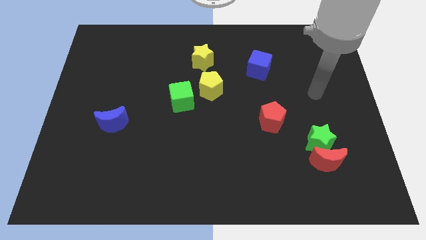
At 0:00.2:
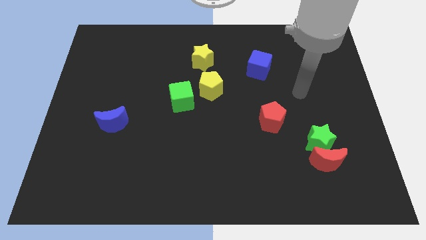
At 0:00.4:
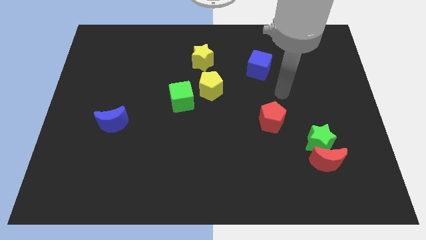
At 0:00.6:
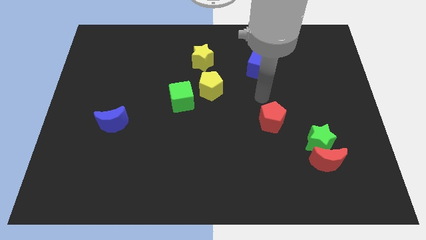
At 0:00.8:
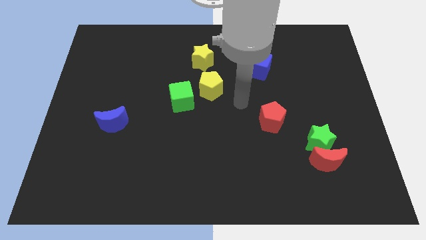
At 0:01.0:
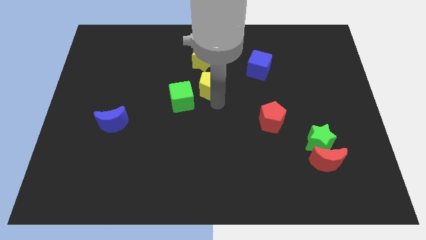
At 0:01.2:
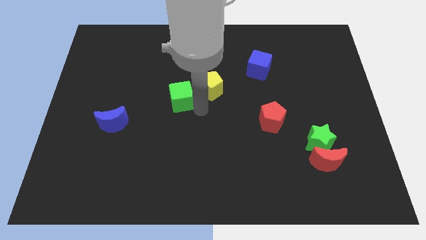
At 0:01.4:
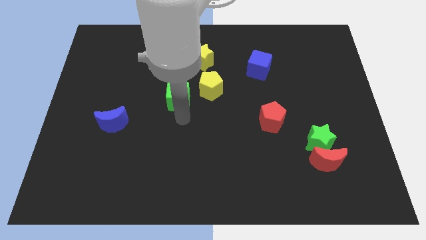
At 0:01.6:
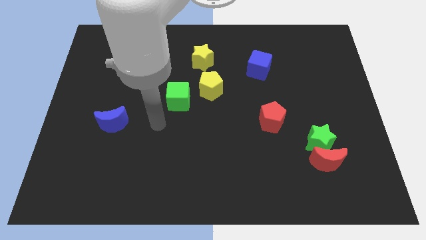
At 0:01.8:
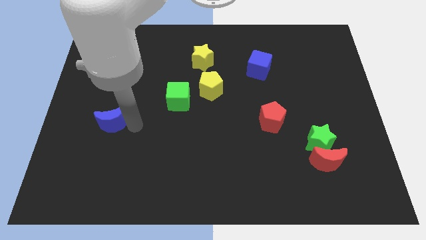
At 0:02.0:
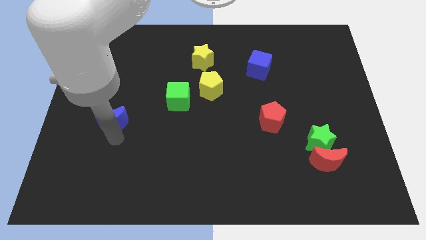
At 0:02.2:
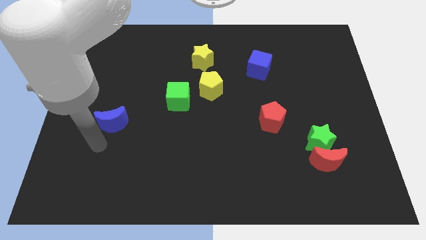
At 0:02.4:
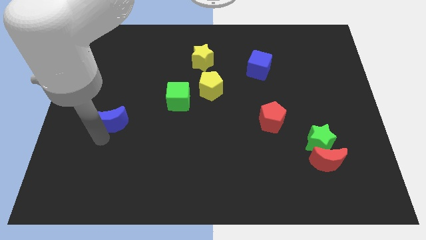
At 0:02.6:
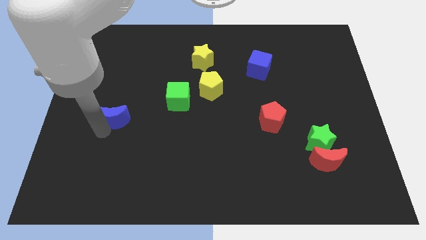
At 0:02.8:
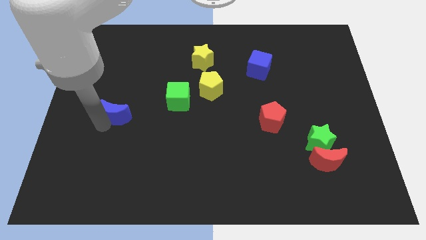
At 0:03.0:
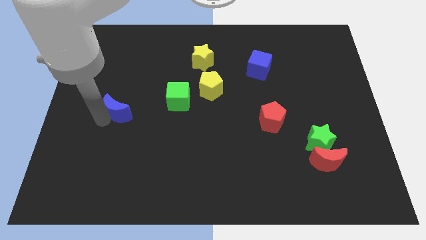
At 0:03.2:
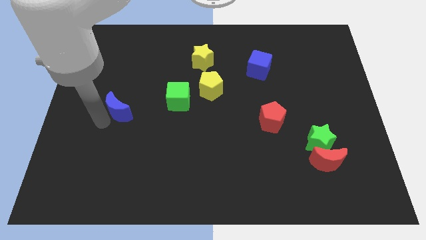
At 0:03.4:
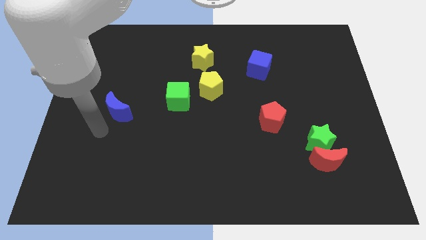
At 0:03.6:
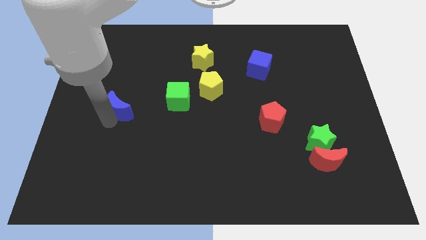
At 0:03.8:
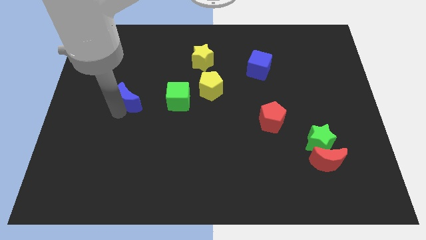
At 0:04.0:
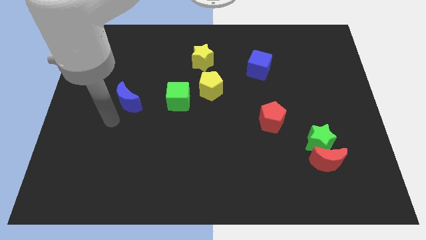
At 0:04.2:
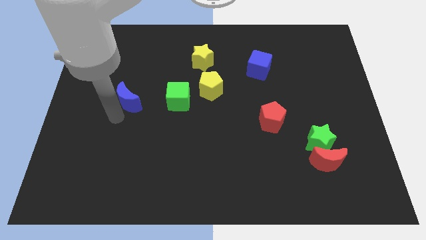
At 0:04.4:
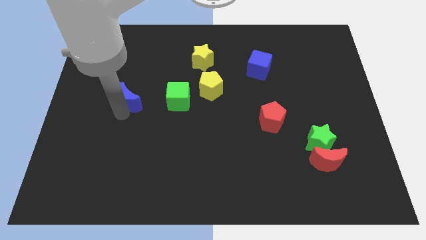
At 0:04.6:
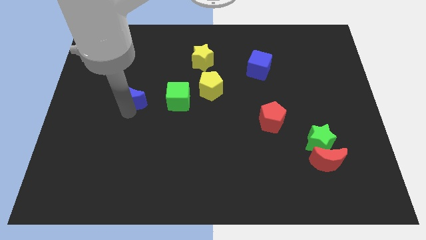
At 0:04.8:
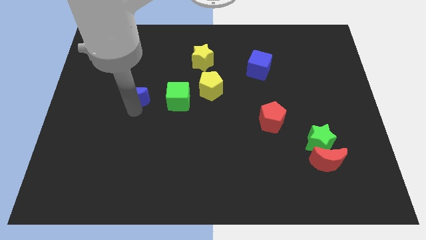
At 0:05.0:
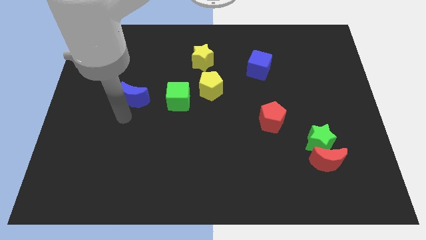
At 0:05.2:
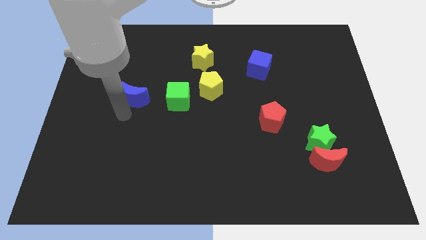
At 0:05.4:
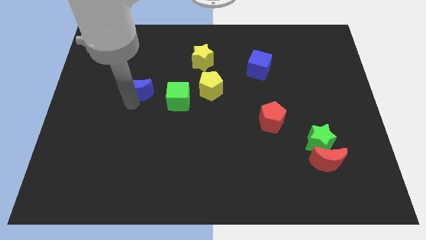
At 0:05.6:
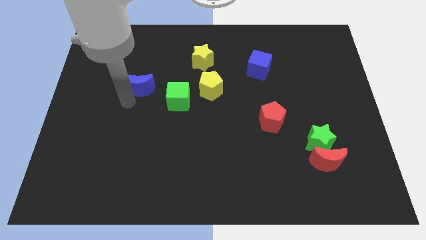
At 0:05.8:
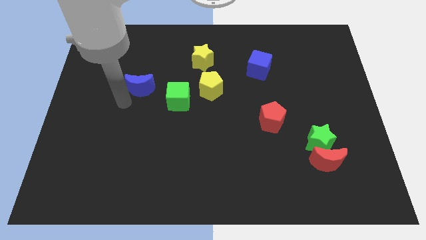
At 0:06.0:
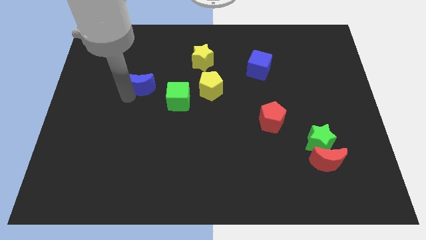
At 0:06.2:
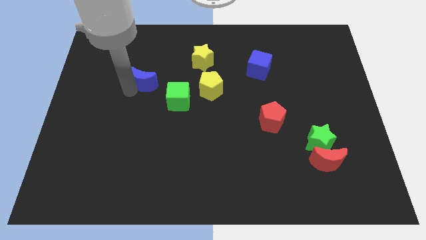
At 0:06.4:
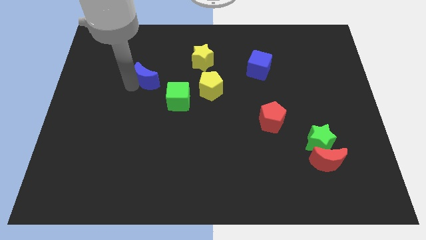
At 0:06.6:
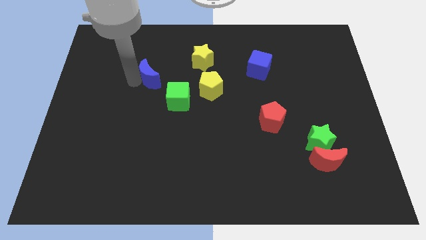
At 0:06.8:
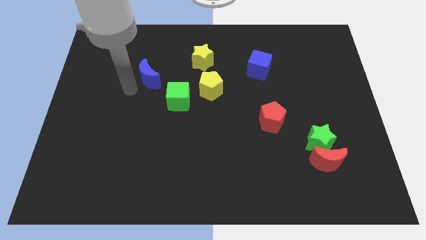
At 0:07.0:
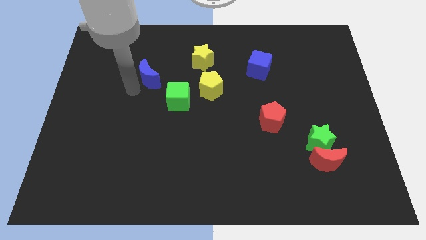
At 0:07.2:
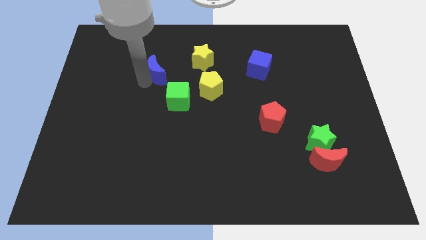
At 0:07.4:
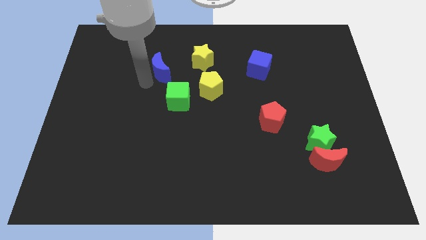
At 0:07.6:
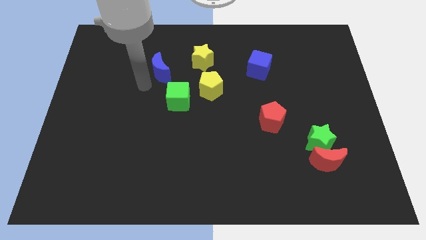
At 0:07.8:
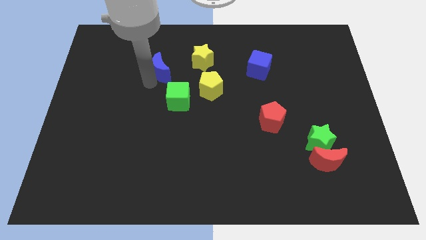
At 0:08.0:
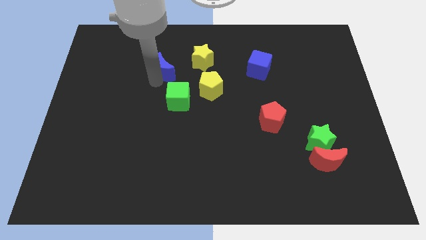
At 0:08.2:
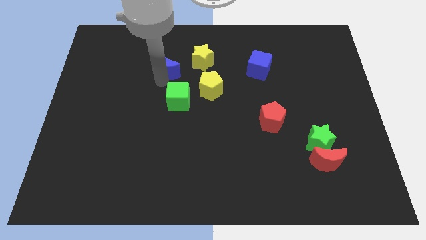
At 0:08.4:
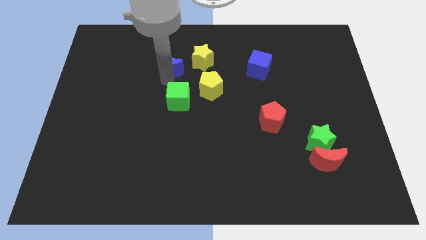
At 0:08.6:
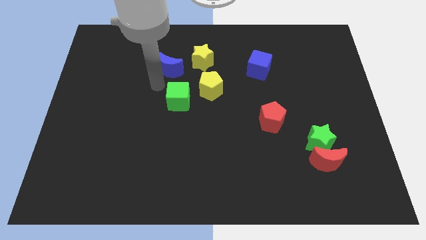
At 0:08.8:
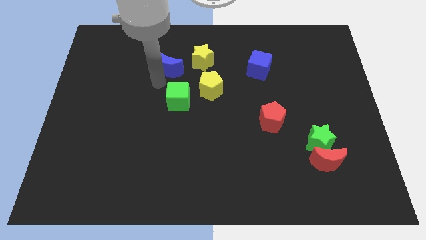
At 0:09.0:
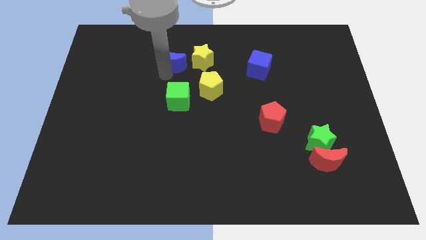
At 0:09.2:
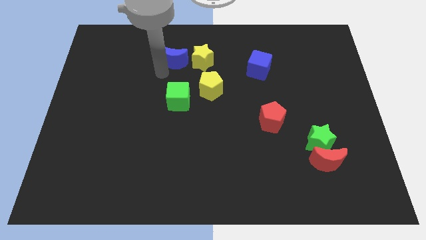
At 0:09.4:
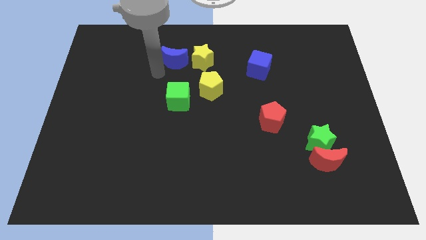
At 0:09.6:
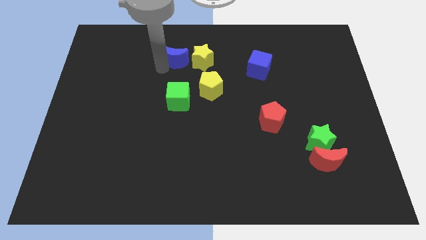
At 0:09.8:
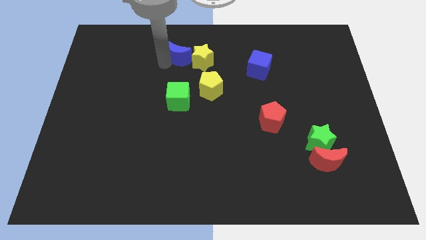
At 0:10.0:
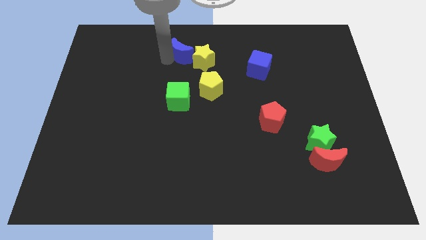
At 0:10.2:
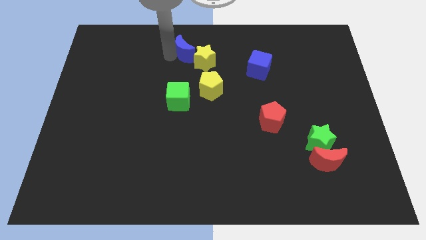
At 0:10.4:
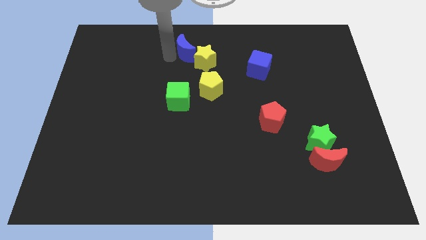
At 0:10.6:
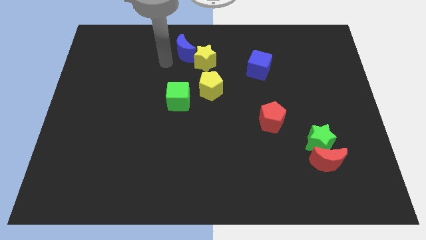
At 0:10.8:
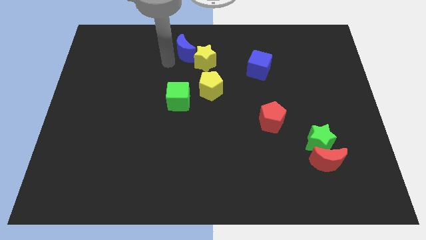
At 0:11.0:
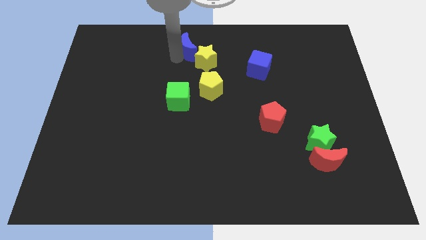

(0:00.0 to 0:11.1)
move the blue moon to the top

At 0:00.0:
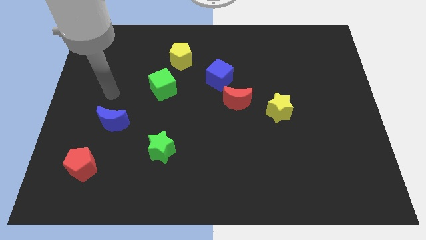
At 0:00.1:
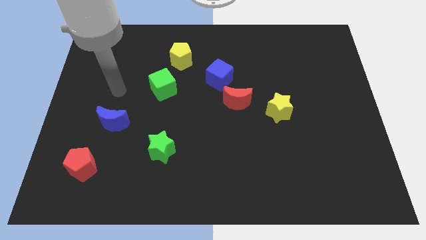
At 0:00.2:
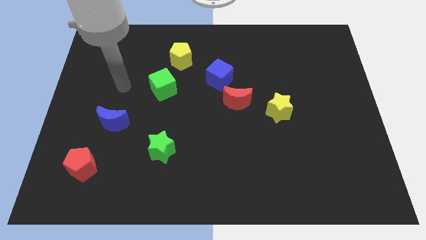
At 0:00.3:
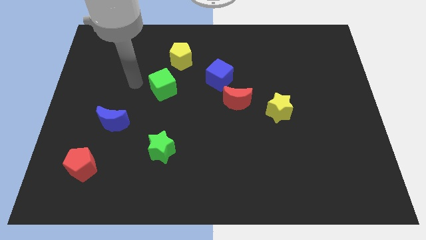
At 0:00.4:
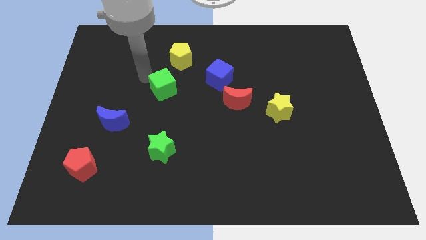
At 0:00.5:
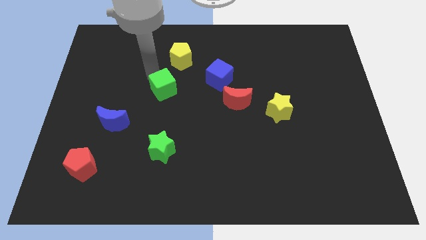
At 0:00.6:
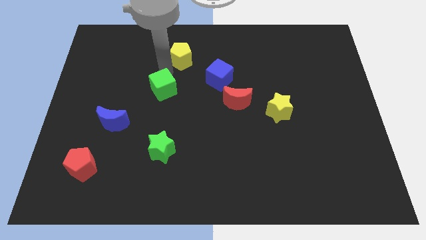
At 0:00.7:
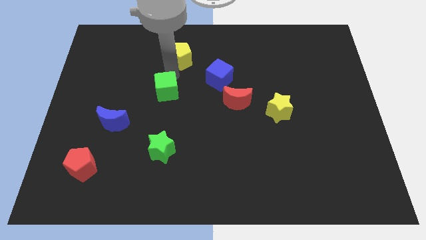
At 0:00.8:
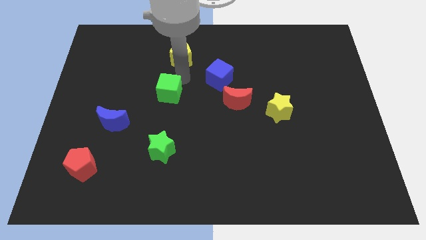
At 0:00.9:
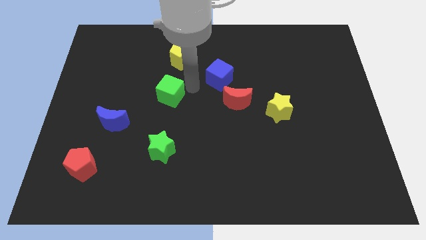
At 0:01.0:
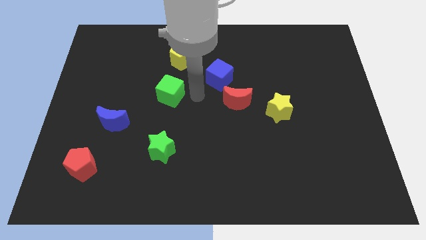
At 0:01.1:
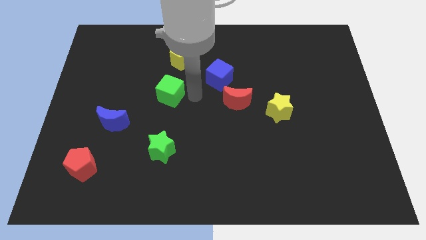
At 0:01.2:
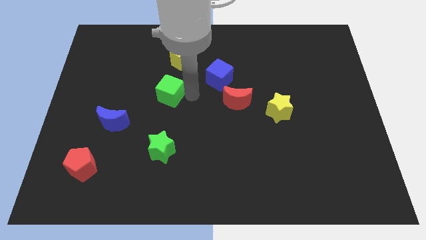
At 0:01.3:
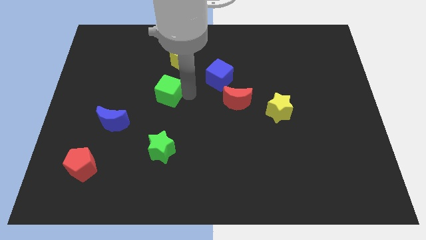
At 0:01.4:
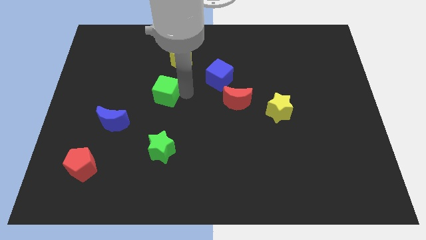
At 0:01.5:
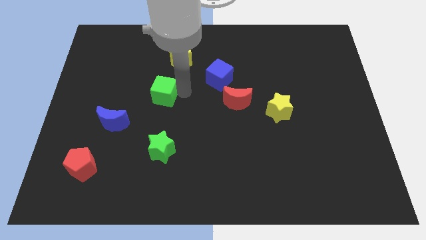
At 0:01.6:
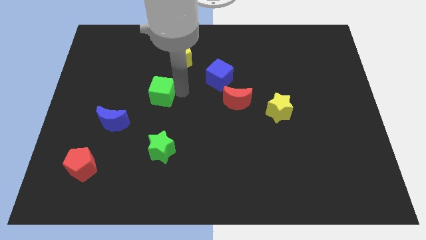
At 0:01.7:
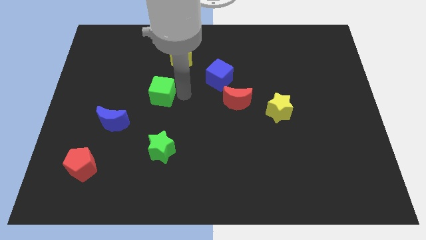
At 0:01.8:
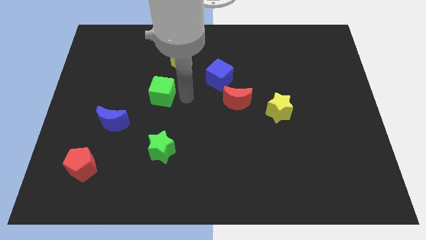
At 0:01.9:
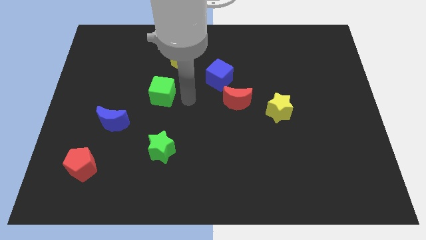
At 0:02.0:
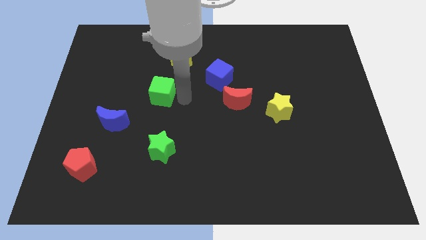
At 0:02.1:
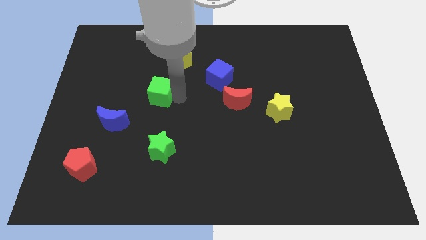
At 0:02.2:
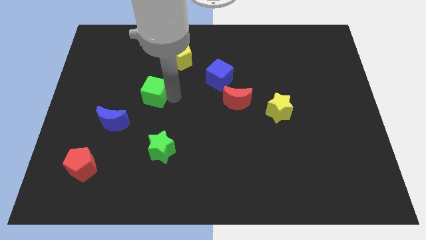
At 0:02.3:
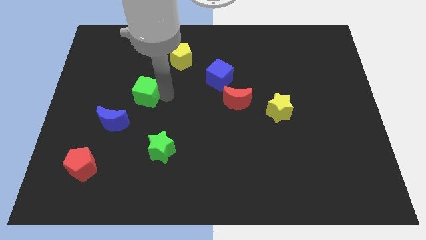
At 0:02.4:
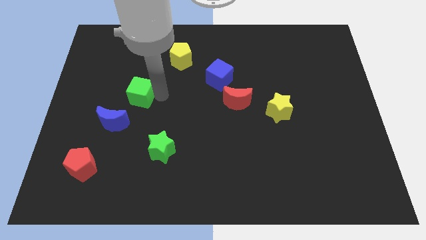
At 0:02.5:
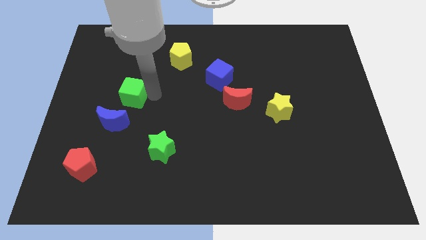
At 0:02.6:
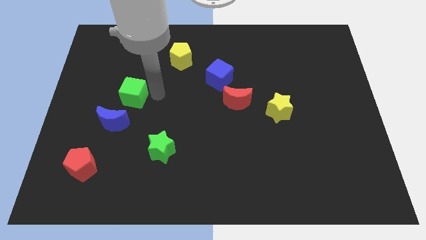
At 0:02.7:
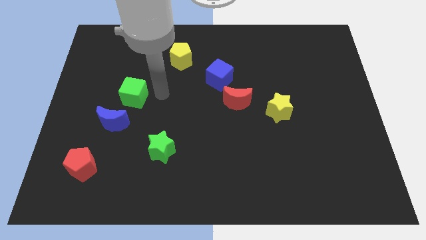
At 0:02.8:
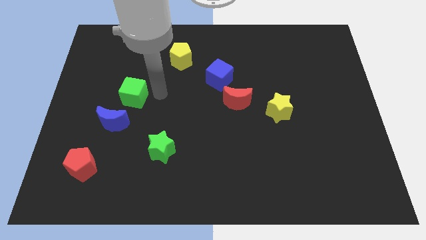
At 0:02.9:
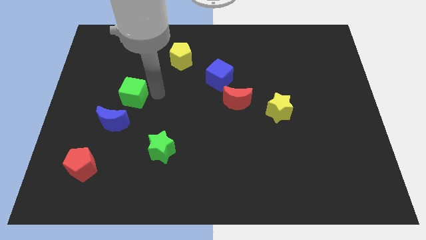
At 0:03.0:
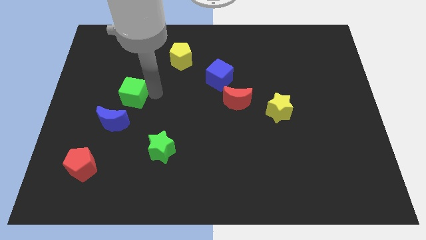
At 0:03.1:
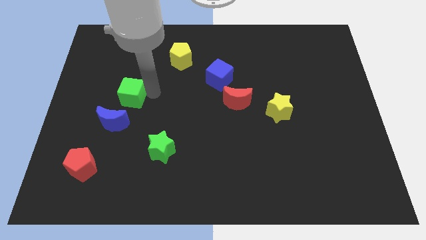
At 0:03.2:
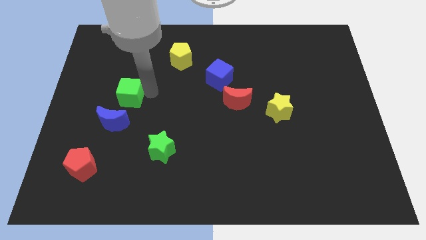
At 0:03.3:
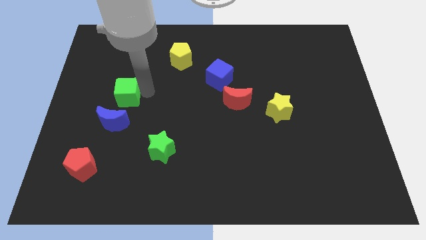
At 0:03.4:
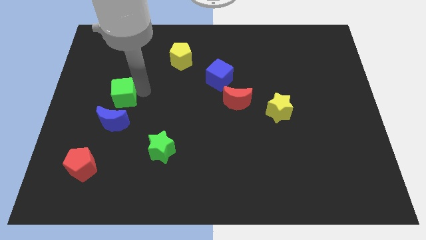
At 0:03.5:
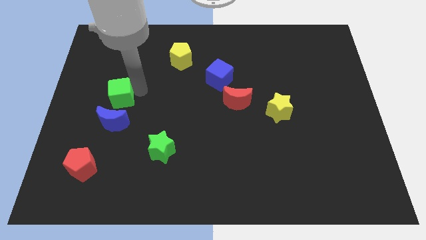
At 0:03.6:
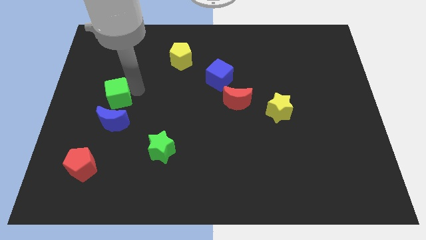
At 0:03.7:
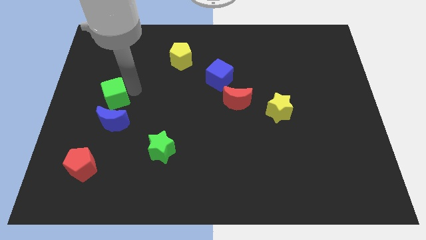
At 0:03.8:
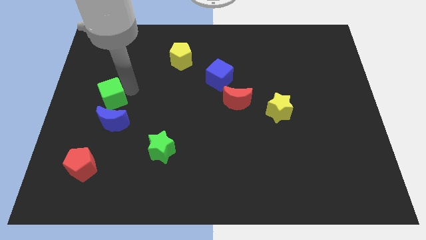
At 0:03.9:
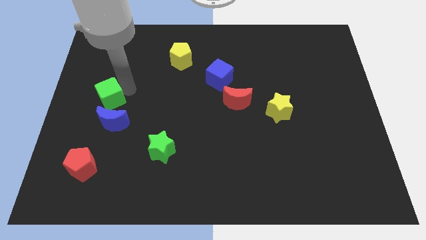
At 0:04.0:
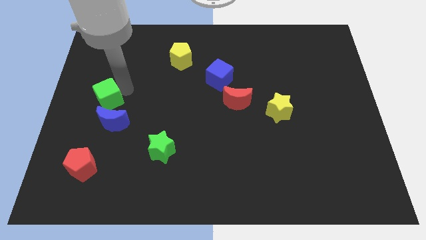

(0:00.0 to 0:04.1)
slide the green cube to the left side of the board
